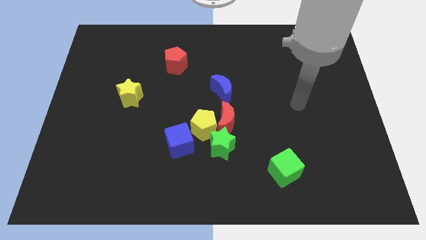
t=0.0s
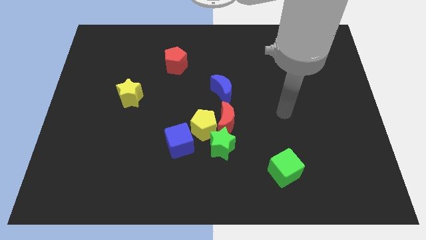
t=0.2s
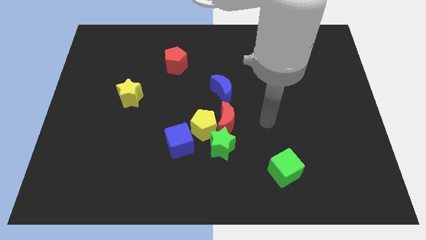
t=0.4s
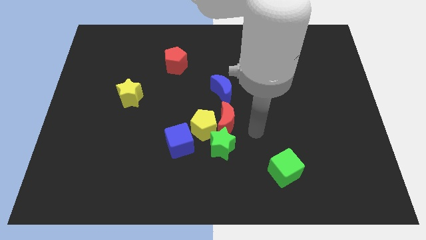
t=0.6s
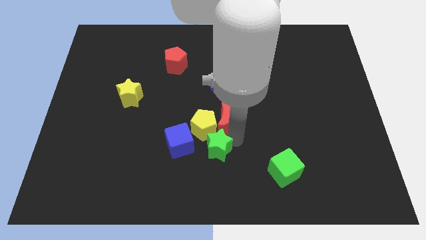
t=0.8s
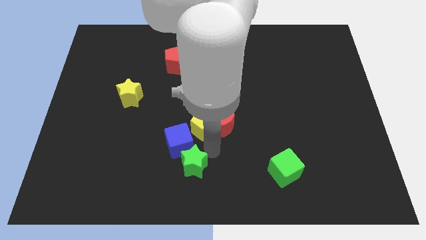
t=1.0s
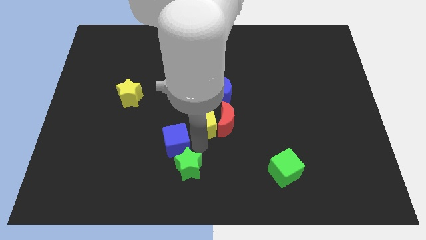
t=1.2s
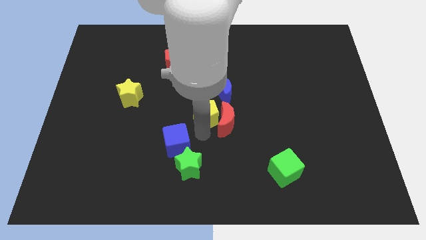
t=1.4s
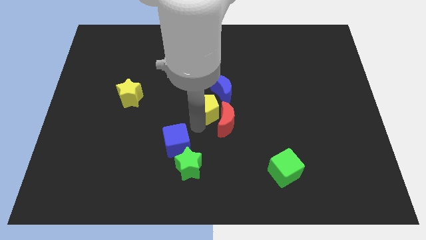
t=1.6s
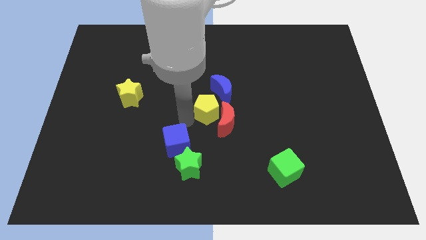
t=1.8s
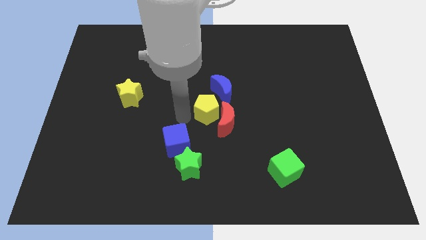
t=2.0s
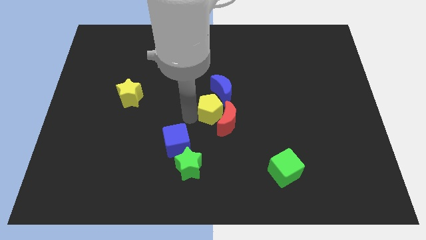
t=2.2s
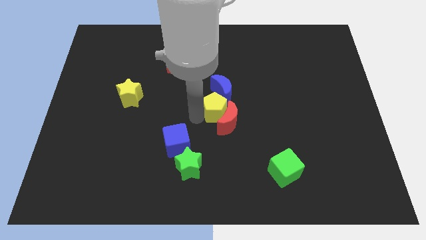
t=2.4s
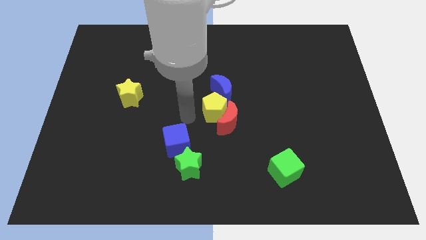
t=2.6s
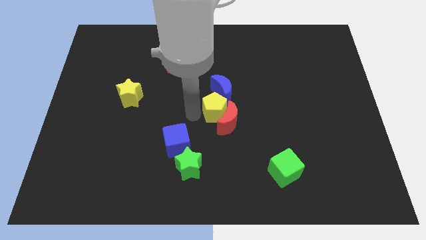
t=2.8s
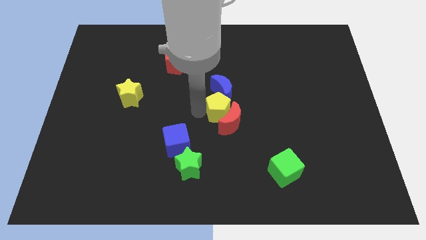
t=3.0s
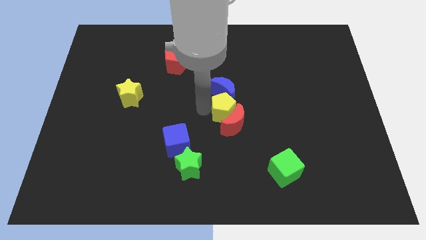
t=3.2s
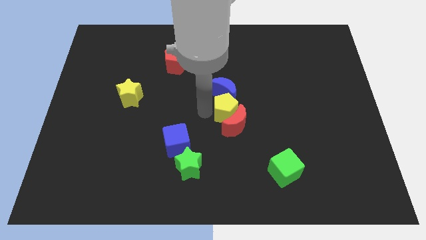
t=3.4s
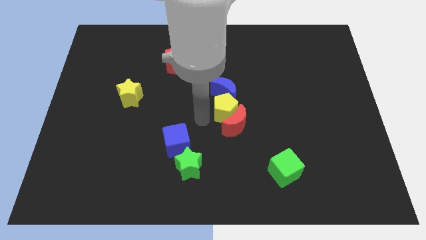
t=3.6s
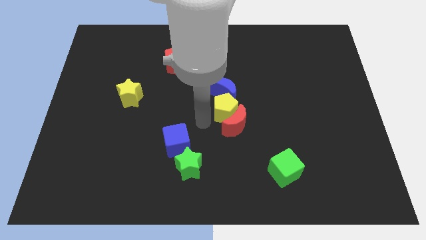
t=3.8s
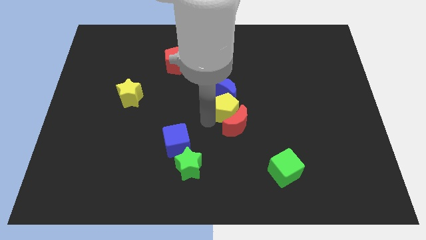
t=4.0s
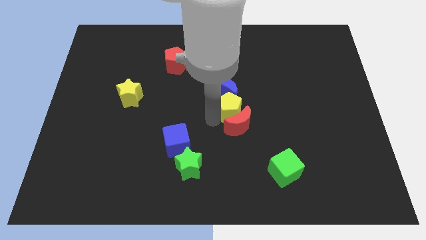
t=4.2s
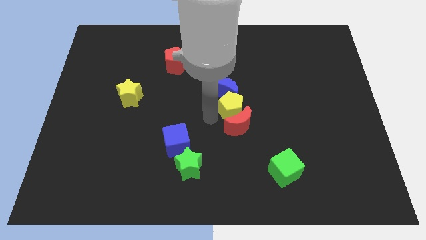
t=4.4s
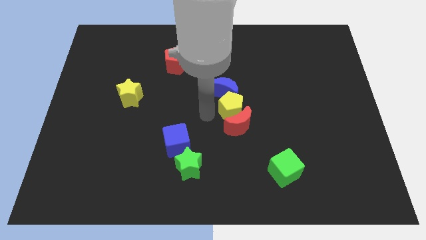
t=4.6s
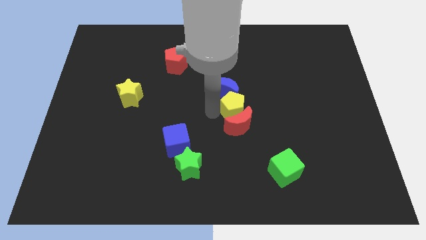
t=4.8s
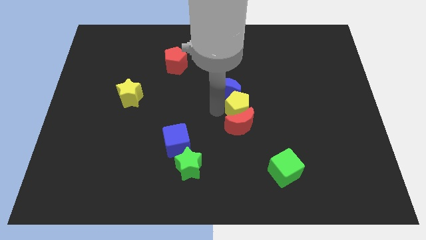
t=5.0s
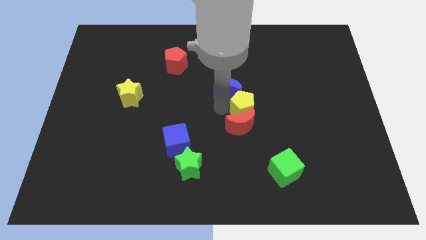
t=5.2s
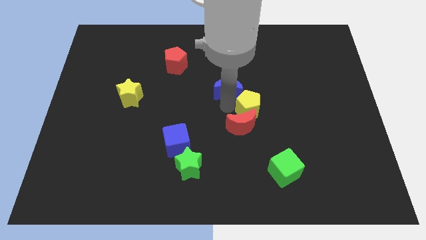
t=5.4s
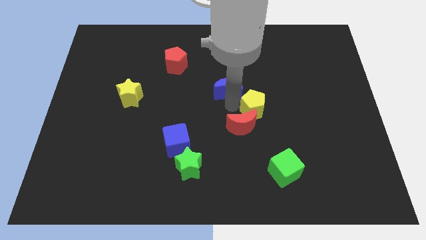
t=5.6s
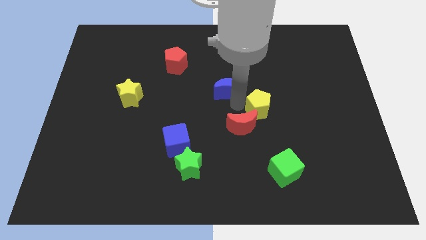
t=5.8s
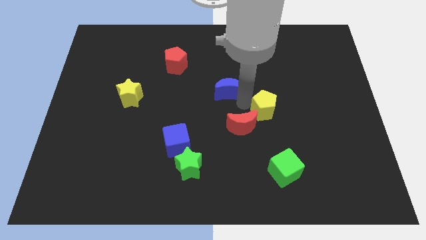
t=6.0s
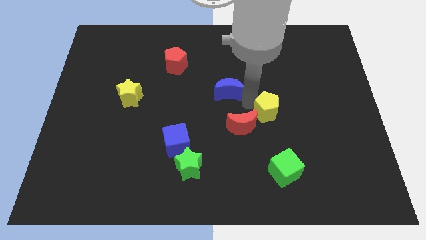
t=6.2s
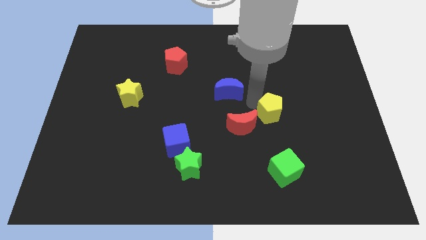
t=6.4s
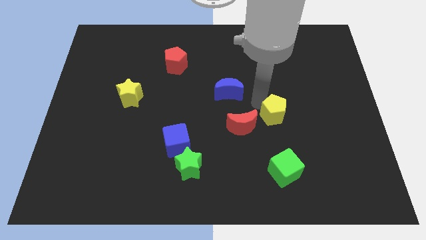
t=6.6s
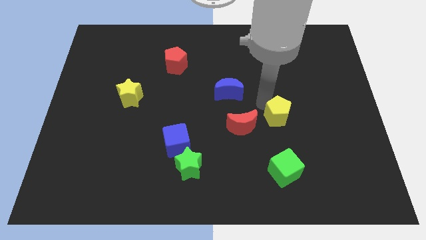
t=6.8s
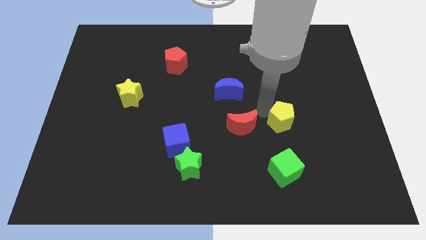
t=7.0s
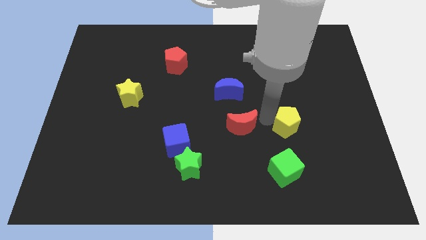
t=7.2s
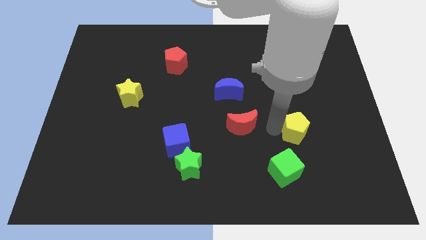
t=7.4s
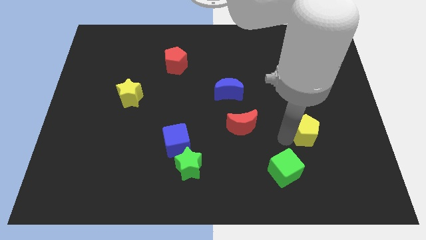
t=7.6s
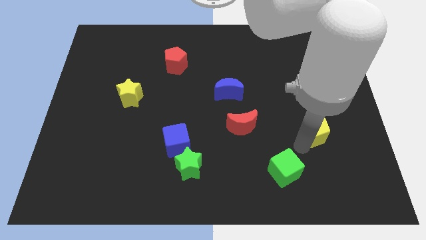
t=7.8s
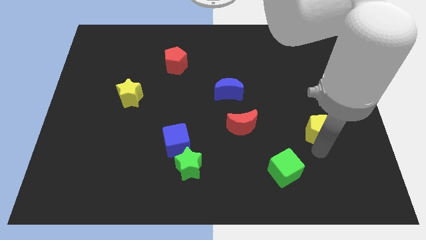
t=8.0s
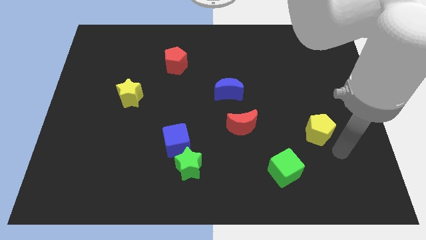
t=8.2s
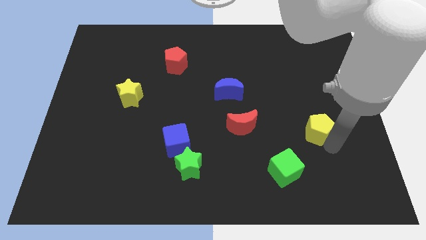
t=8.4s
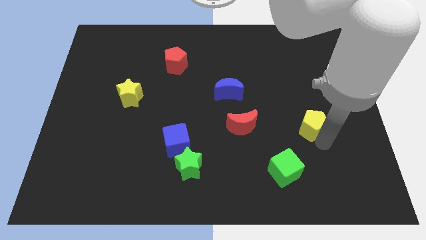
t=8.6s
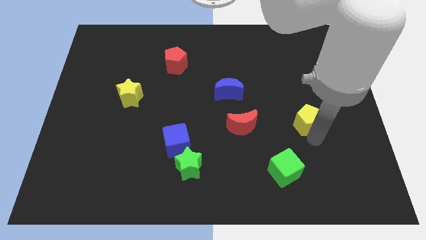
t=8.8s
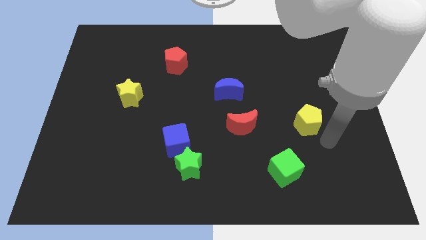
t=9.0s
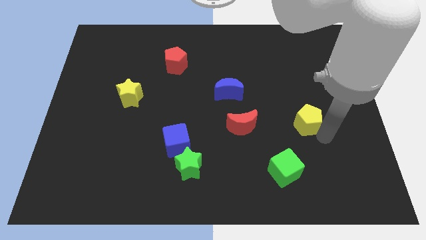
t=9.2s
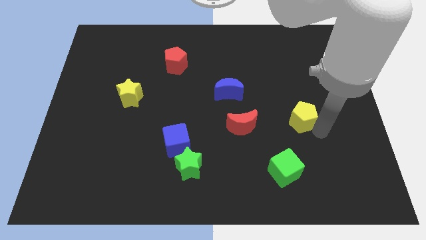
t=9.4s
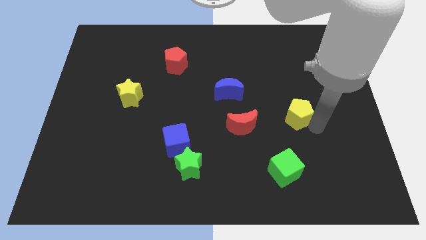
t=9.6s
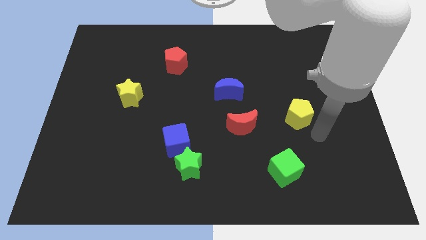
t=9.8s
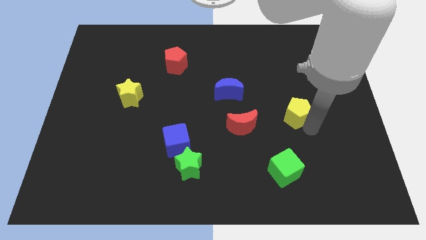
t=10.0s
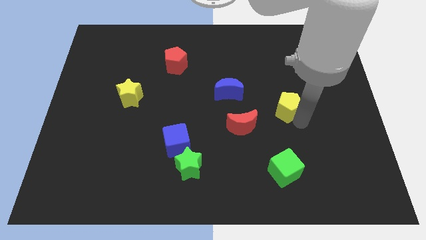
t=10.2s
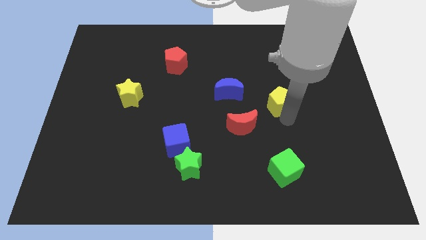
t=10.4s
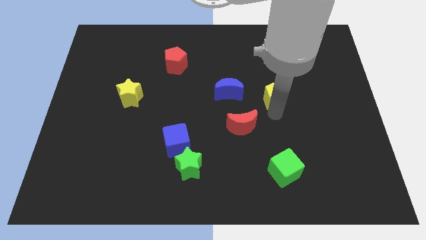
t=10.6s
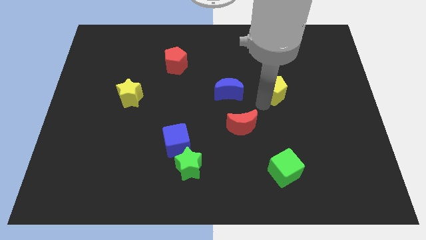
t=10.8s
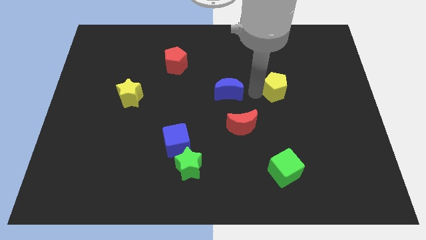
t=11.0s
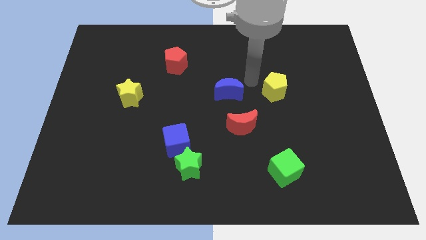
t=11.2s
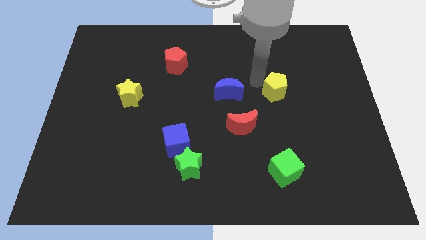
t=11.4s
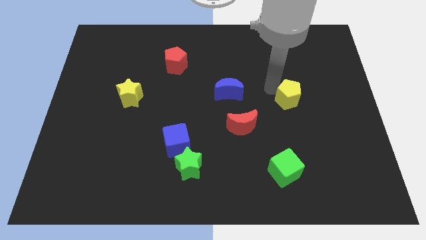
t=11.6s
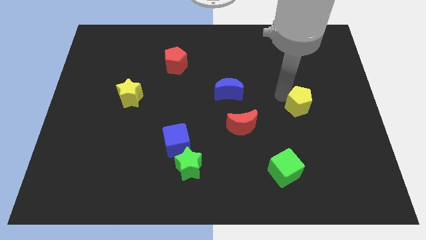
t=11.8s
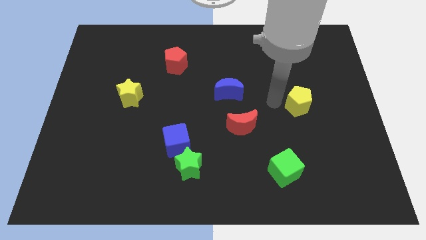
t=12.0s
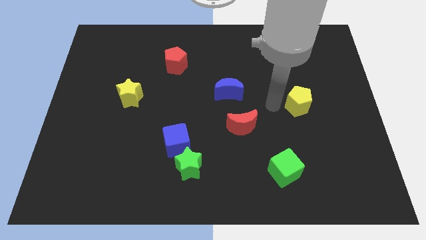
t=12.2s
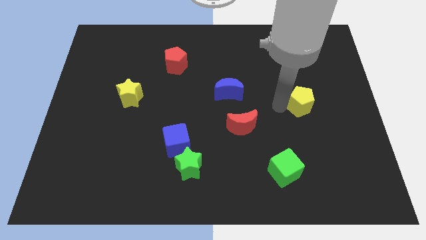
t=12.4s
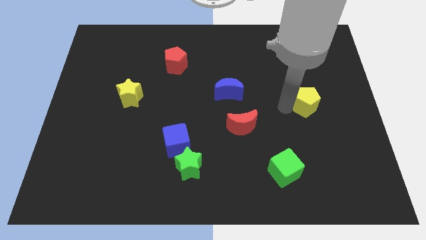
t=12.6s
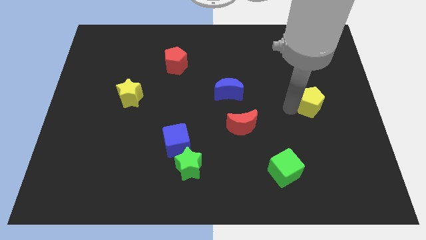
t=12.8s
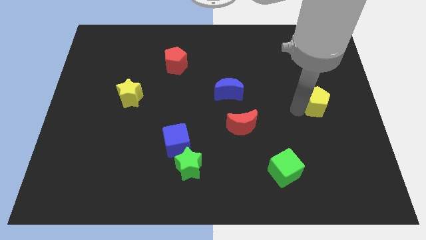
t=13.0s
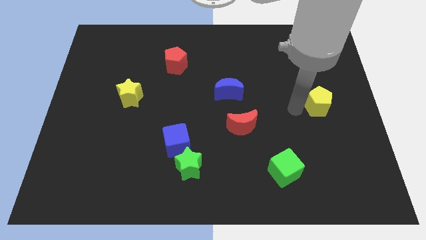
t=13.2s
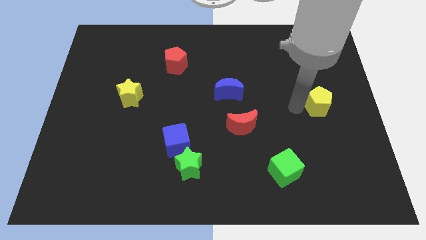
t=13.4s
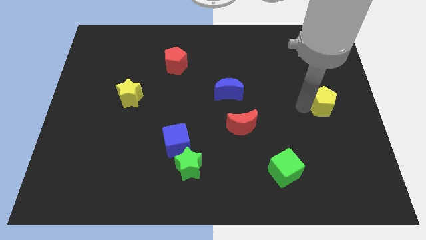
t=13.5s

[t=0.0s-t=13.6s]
move the yellow pentagon to the right side of the board
